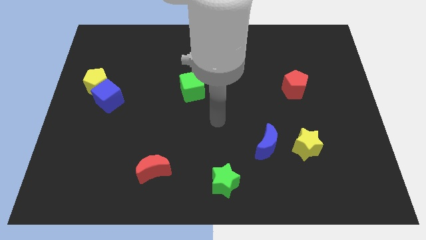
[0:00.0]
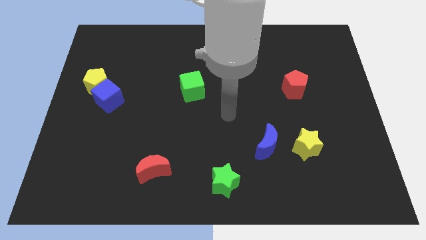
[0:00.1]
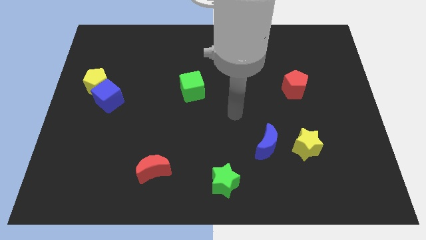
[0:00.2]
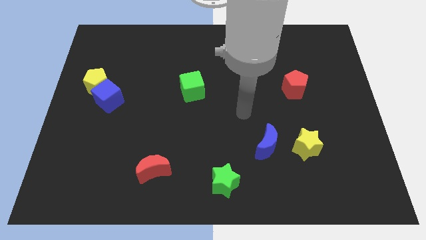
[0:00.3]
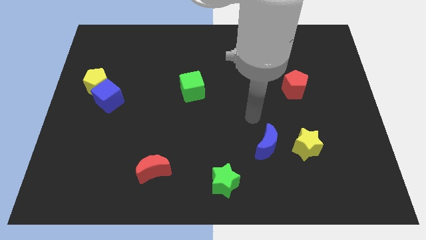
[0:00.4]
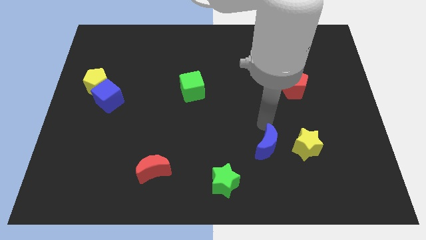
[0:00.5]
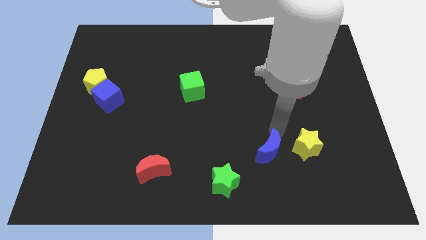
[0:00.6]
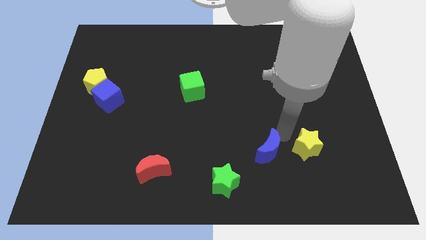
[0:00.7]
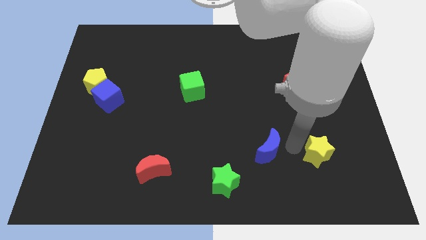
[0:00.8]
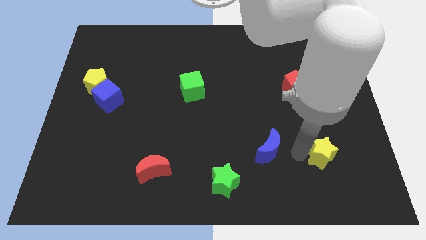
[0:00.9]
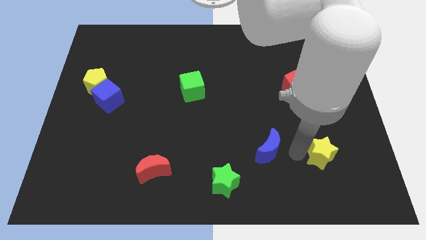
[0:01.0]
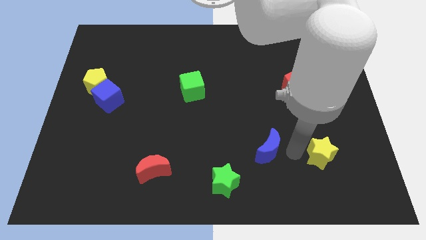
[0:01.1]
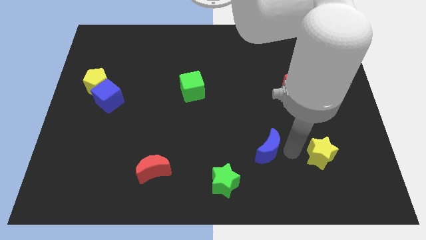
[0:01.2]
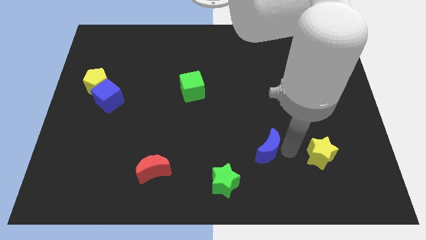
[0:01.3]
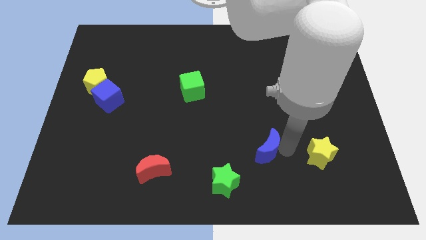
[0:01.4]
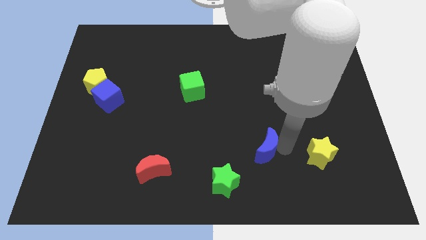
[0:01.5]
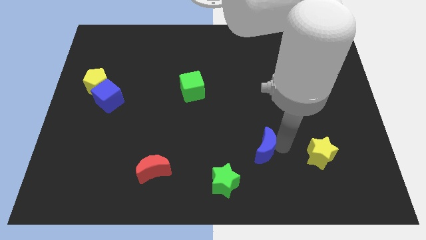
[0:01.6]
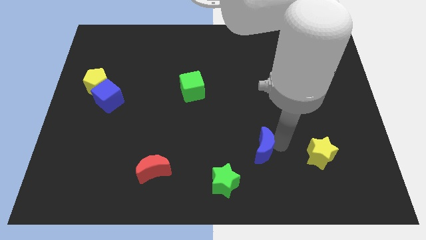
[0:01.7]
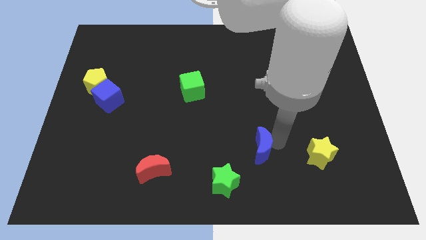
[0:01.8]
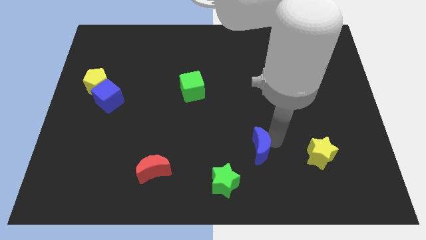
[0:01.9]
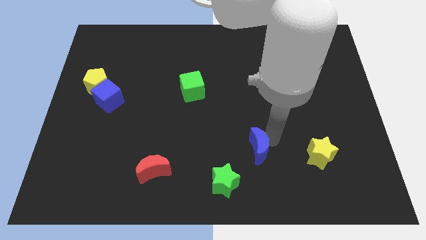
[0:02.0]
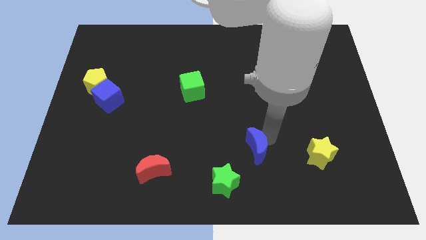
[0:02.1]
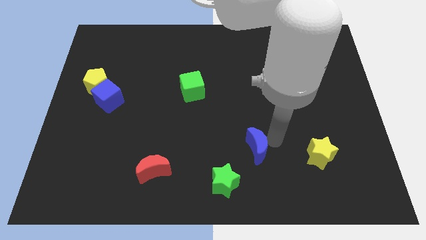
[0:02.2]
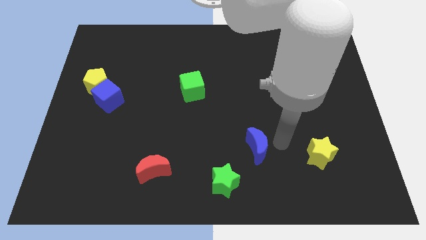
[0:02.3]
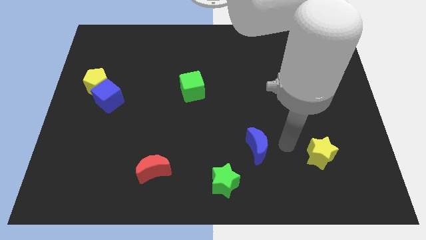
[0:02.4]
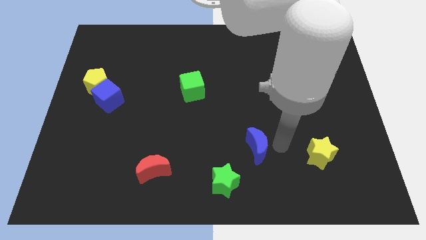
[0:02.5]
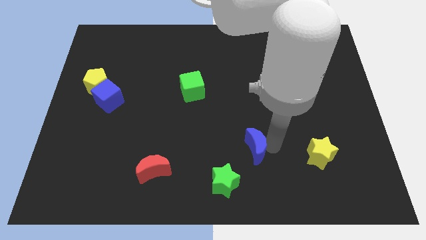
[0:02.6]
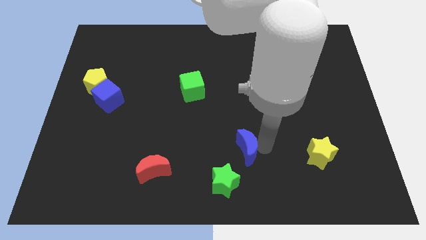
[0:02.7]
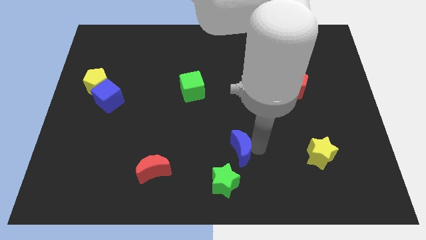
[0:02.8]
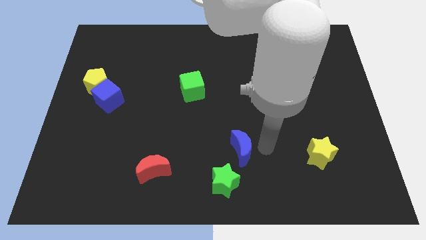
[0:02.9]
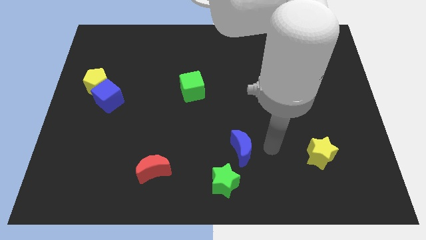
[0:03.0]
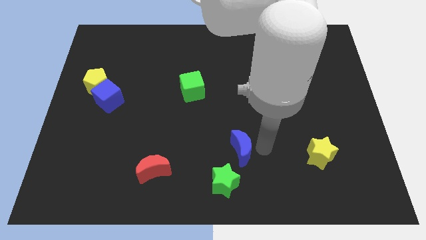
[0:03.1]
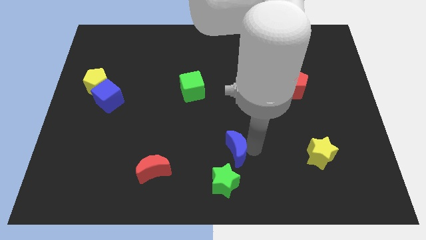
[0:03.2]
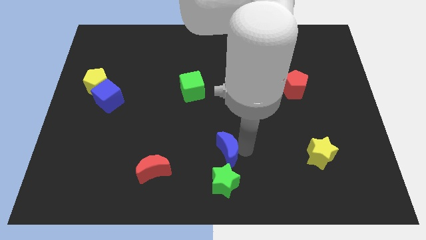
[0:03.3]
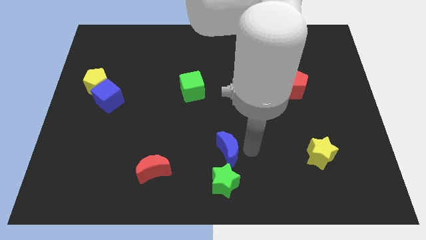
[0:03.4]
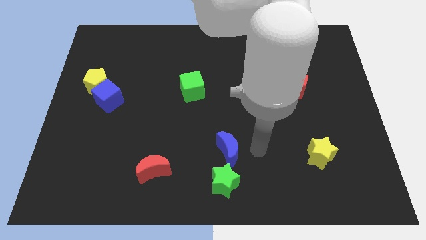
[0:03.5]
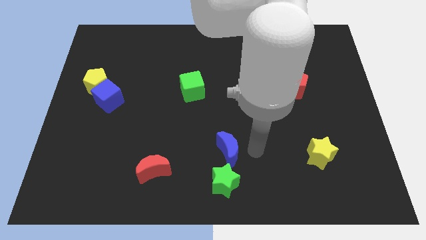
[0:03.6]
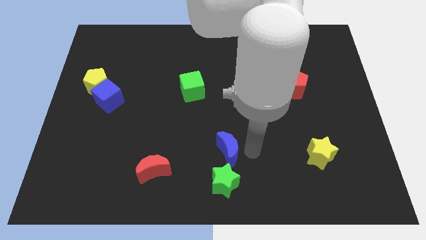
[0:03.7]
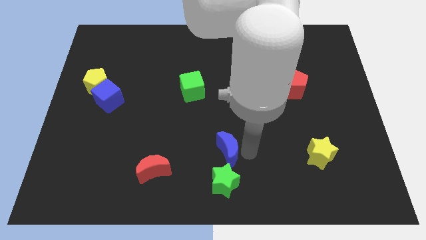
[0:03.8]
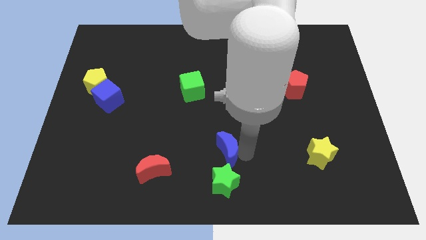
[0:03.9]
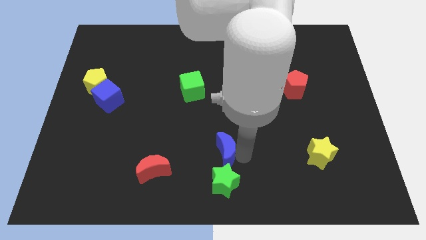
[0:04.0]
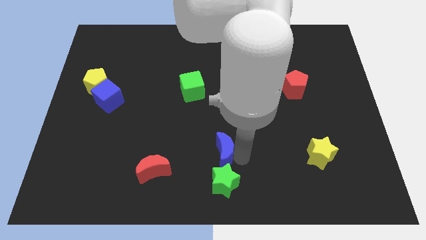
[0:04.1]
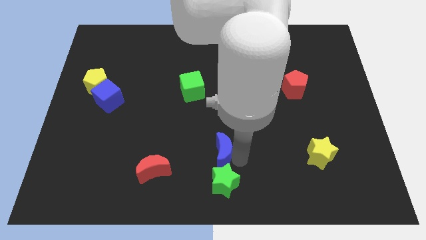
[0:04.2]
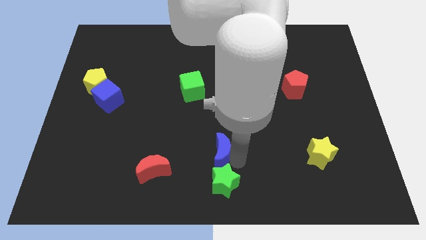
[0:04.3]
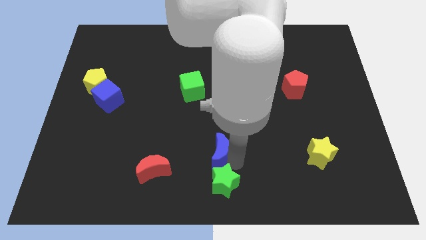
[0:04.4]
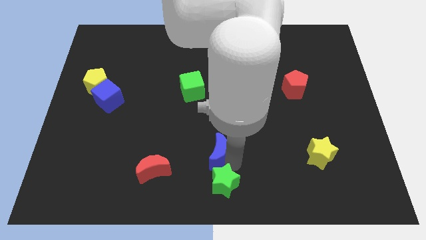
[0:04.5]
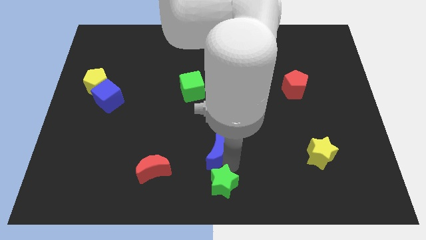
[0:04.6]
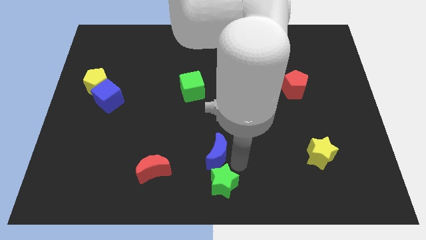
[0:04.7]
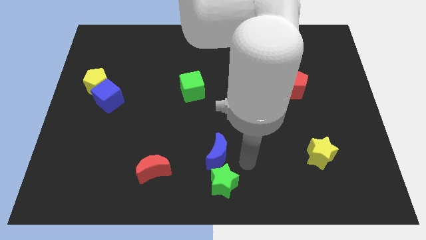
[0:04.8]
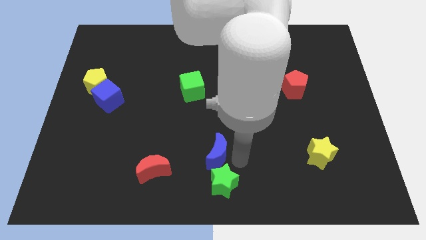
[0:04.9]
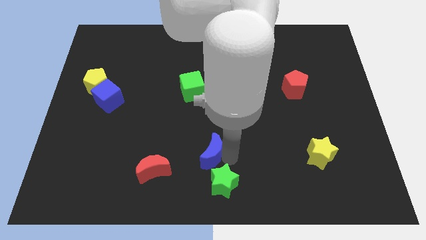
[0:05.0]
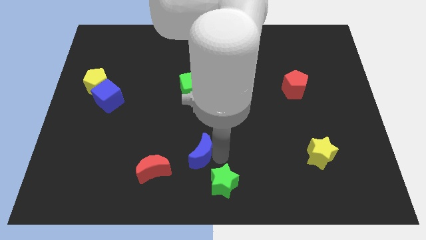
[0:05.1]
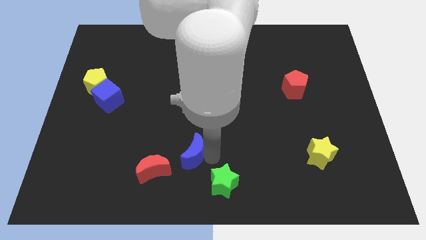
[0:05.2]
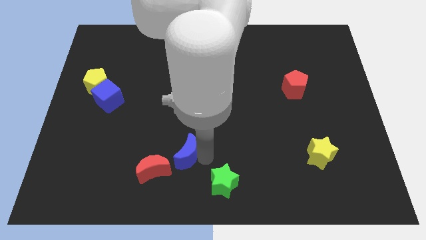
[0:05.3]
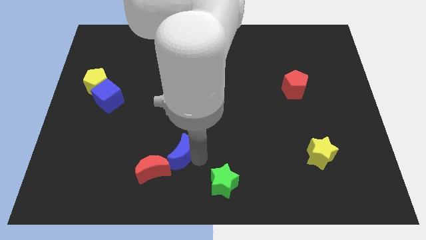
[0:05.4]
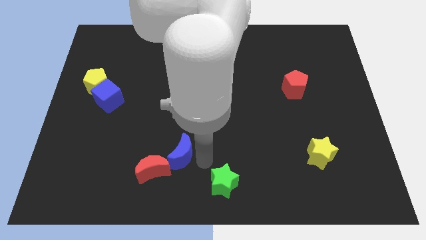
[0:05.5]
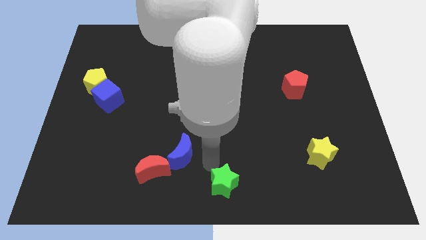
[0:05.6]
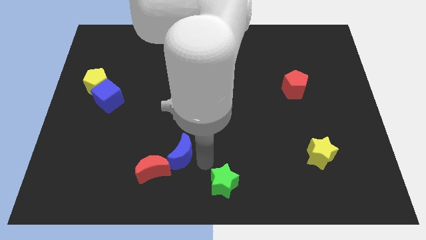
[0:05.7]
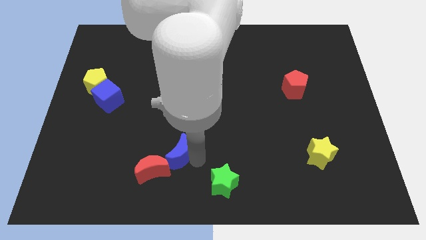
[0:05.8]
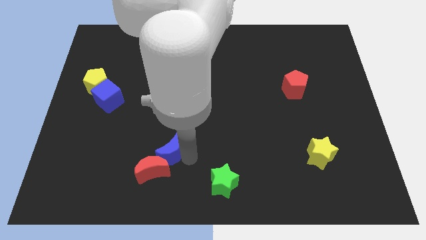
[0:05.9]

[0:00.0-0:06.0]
move the blue moon to the left

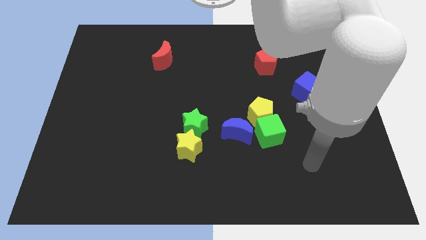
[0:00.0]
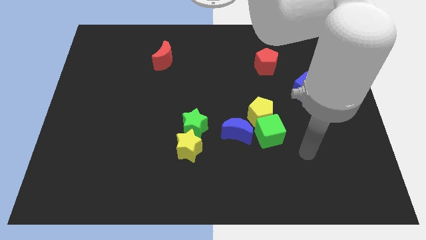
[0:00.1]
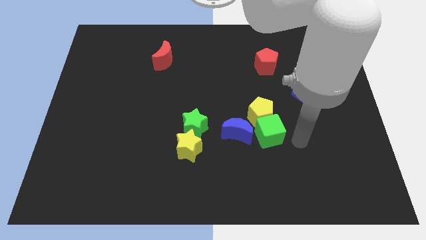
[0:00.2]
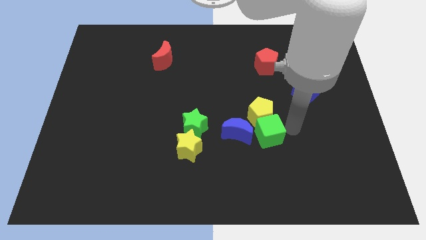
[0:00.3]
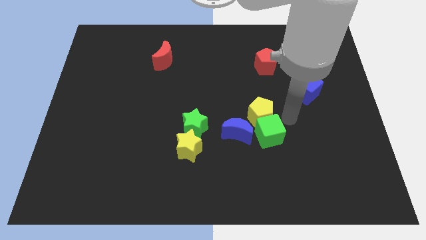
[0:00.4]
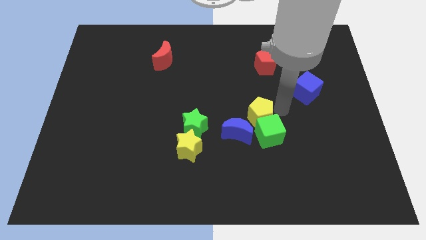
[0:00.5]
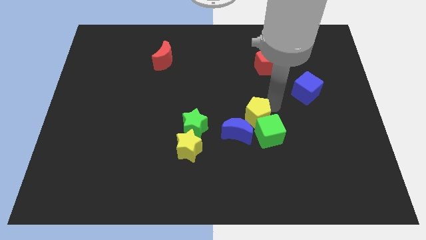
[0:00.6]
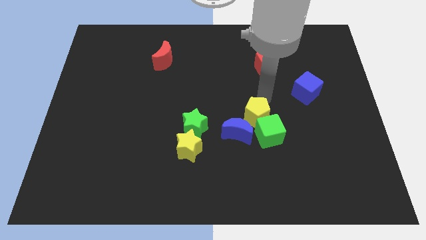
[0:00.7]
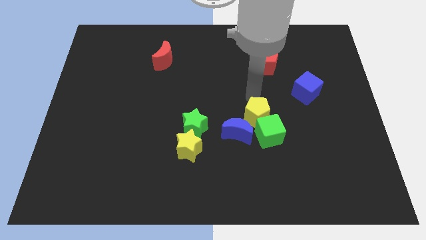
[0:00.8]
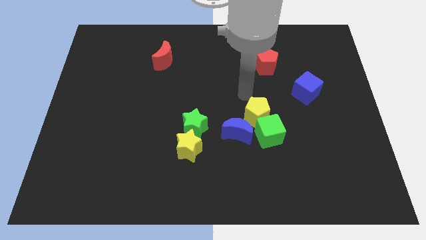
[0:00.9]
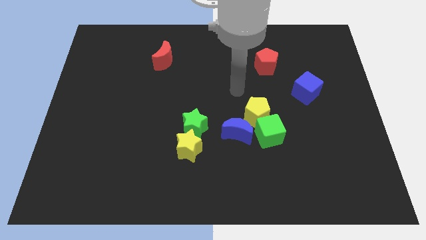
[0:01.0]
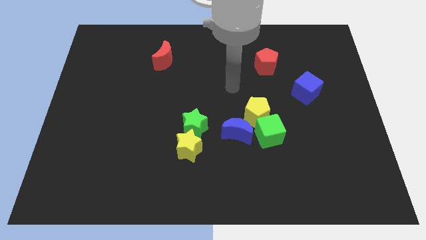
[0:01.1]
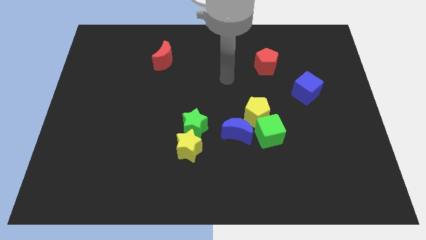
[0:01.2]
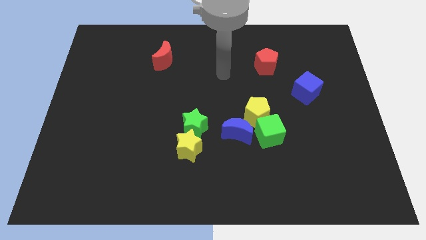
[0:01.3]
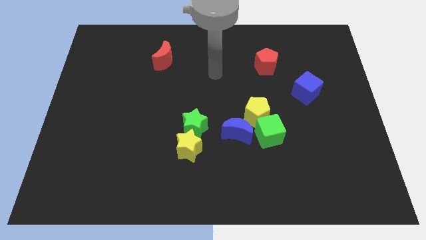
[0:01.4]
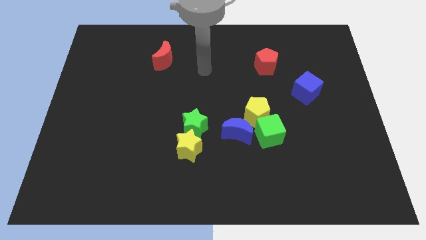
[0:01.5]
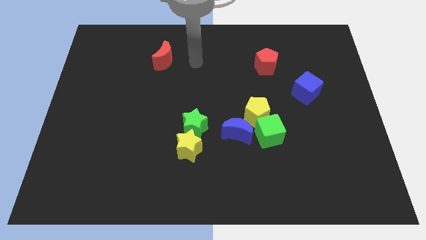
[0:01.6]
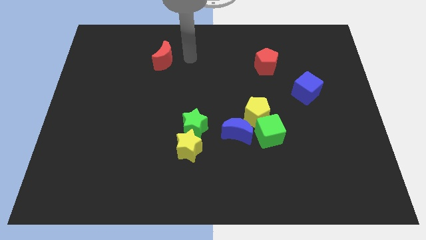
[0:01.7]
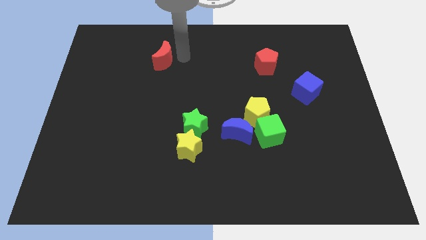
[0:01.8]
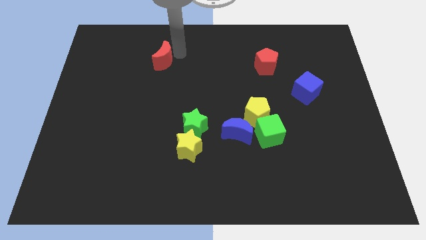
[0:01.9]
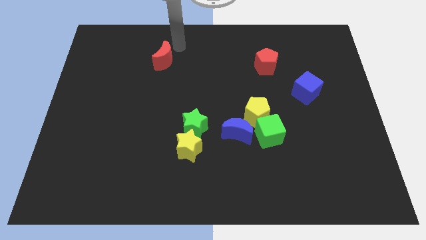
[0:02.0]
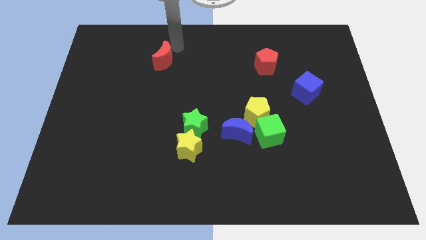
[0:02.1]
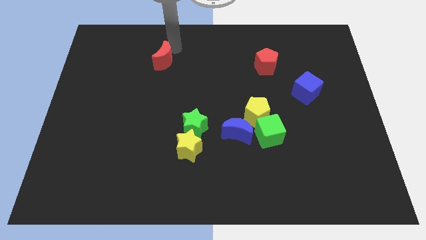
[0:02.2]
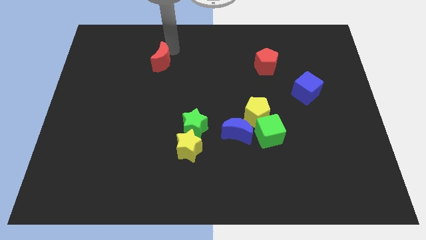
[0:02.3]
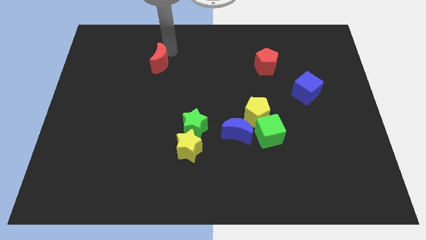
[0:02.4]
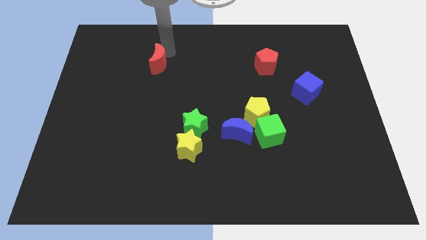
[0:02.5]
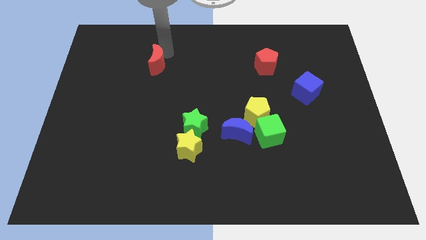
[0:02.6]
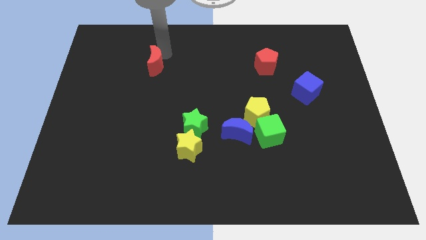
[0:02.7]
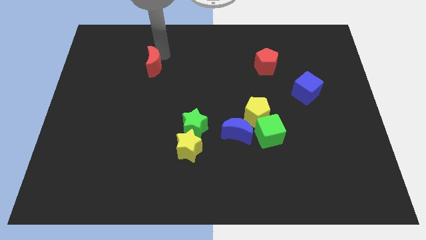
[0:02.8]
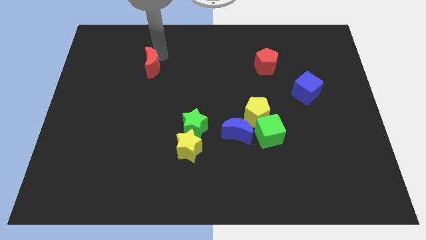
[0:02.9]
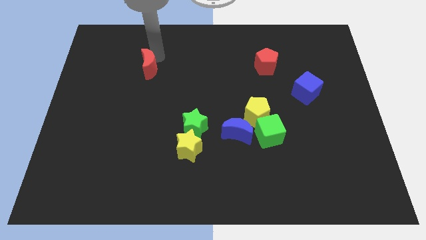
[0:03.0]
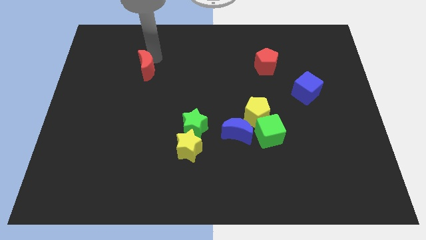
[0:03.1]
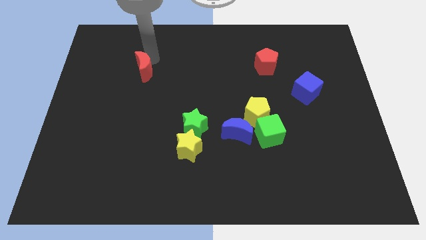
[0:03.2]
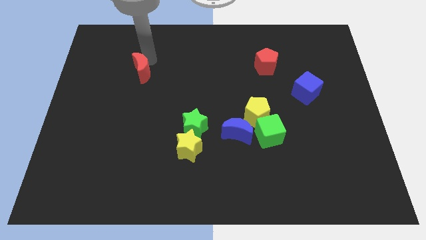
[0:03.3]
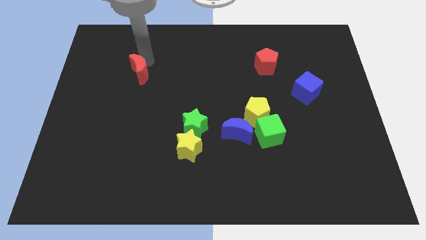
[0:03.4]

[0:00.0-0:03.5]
slightly push the red moon downwards and to the left
